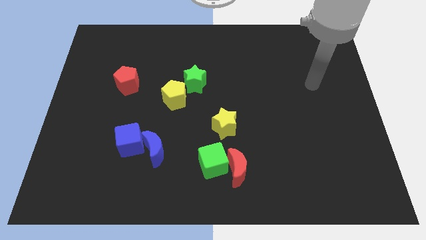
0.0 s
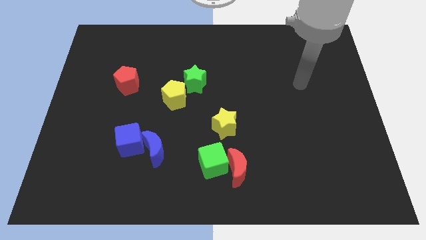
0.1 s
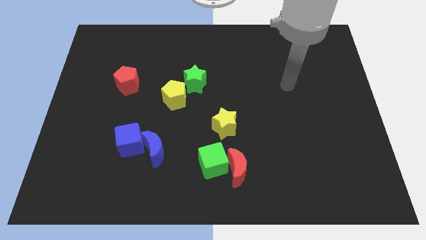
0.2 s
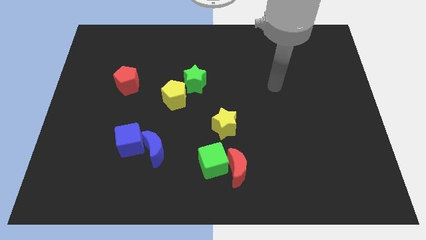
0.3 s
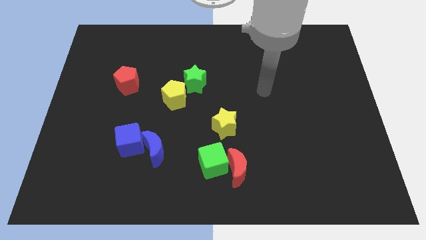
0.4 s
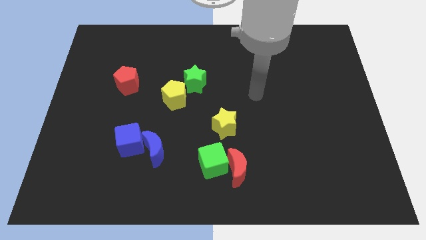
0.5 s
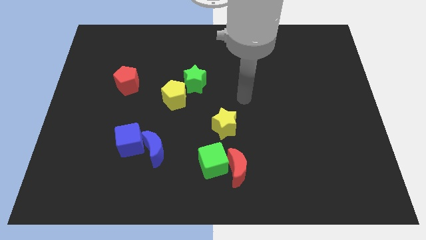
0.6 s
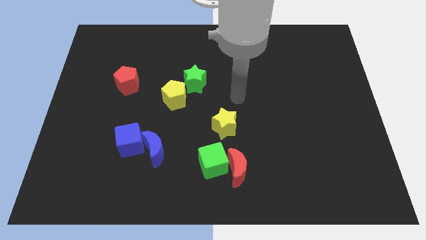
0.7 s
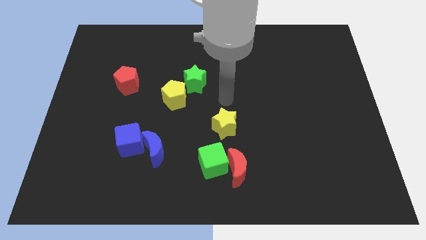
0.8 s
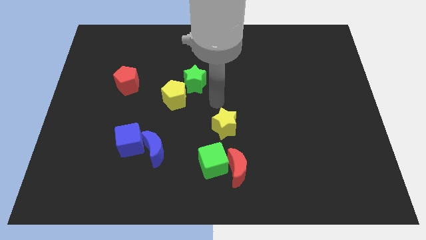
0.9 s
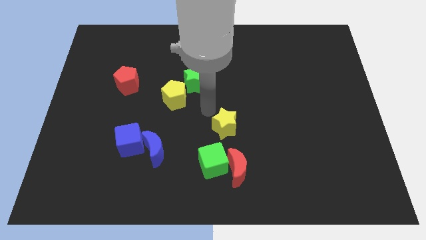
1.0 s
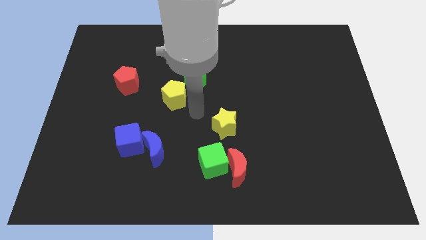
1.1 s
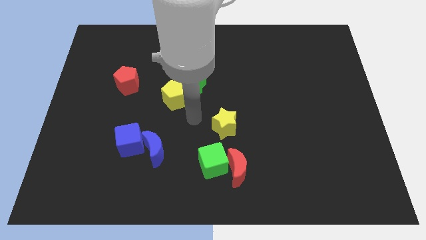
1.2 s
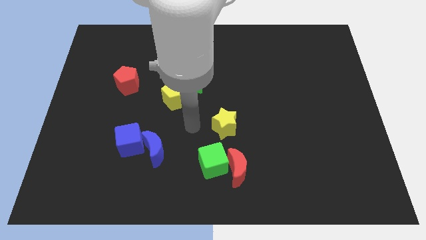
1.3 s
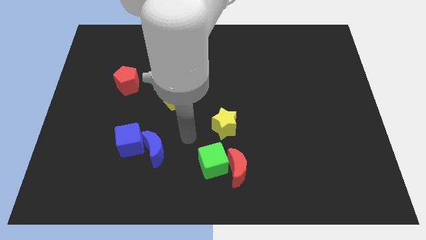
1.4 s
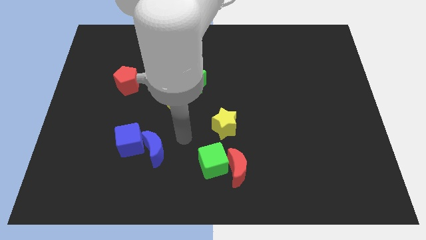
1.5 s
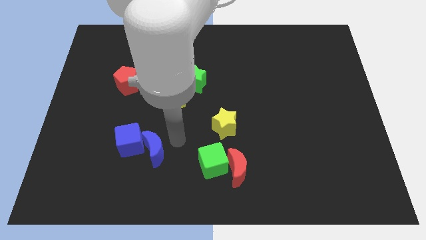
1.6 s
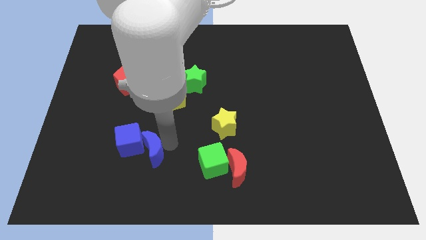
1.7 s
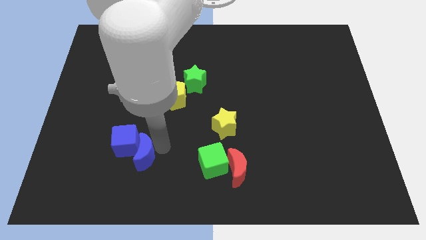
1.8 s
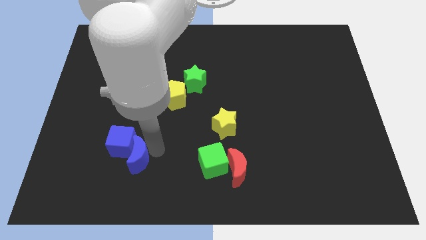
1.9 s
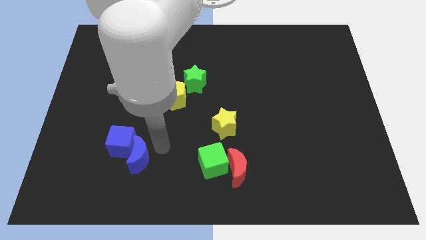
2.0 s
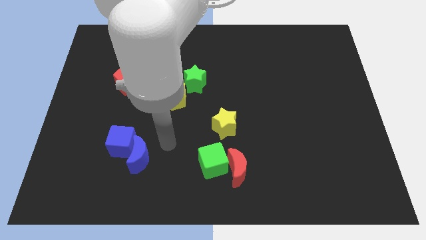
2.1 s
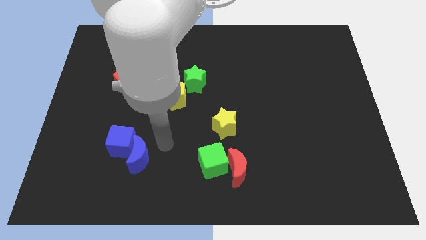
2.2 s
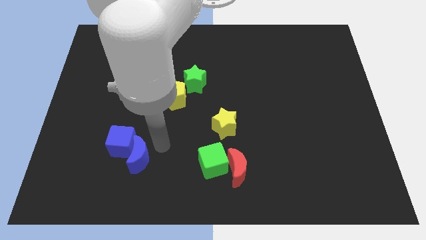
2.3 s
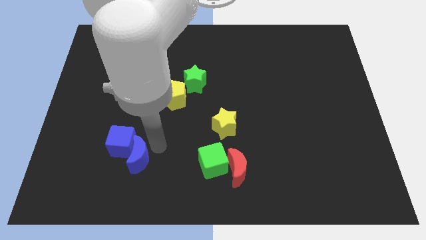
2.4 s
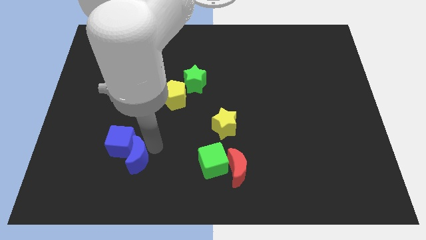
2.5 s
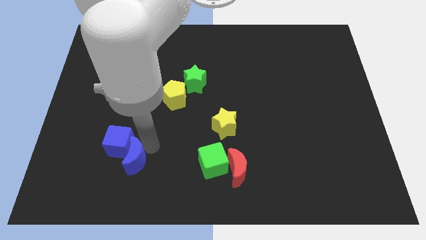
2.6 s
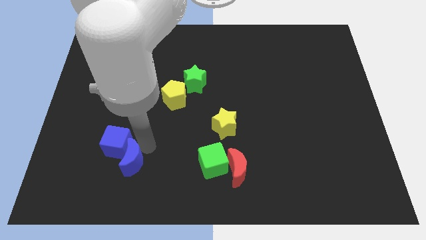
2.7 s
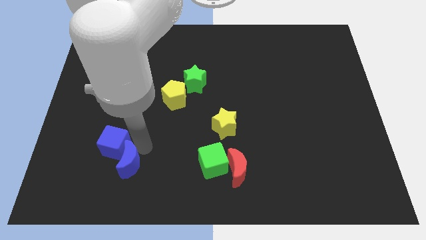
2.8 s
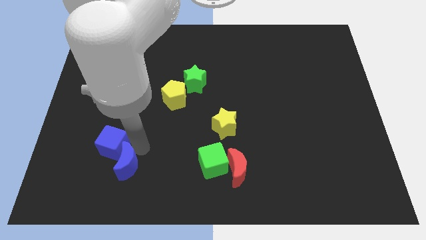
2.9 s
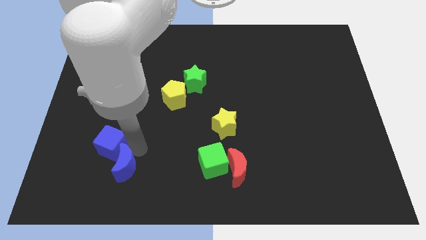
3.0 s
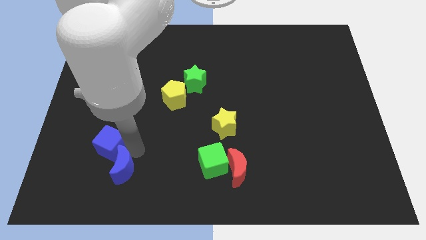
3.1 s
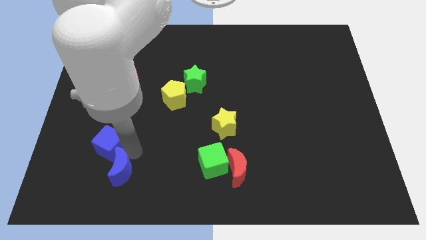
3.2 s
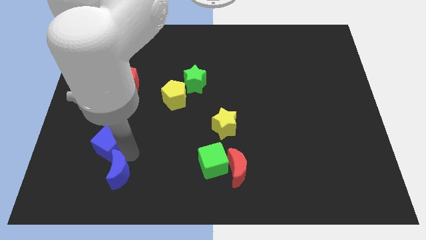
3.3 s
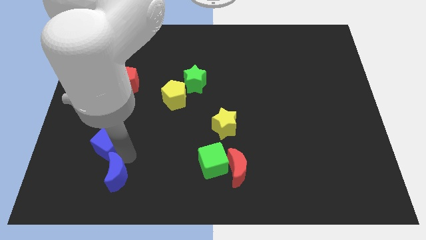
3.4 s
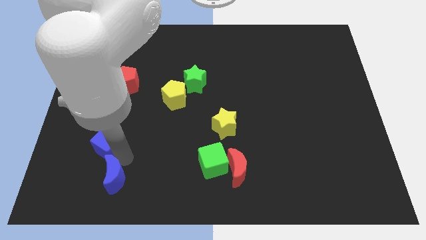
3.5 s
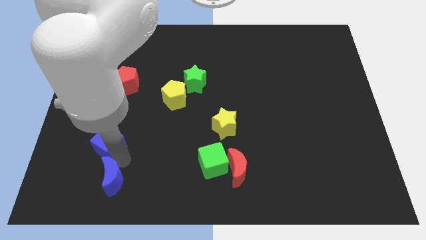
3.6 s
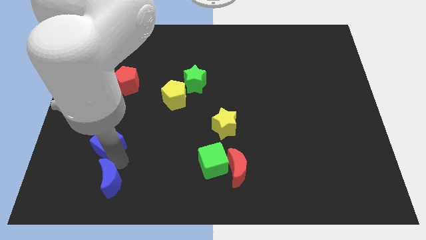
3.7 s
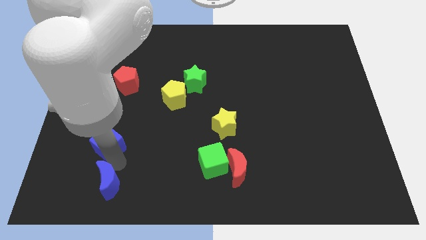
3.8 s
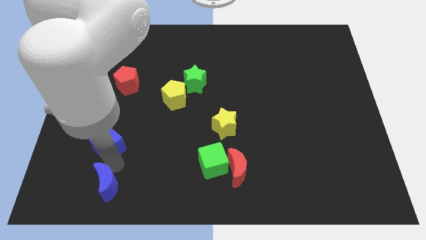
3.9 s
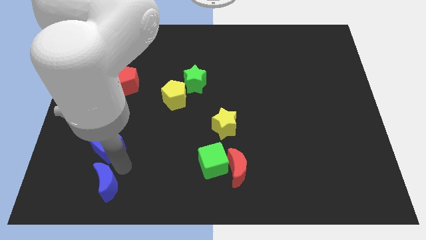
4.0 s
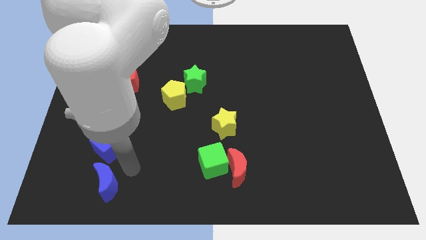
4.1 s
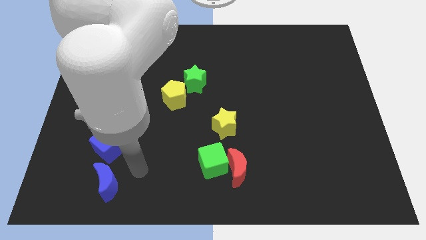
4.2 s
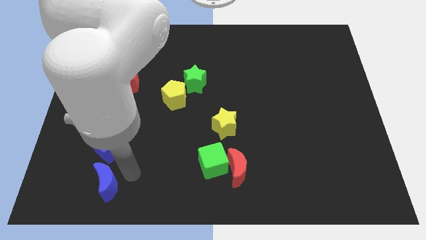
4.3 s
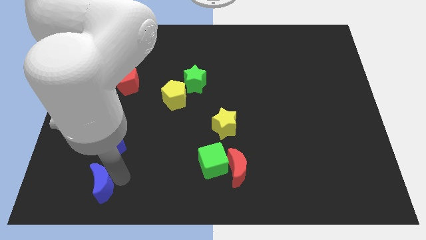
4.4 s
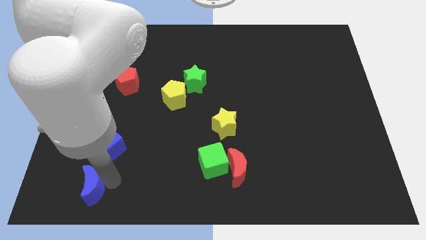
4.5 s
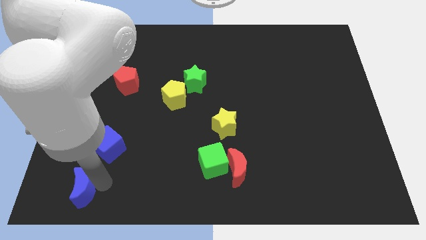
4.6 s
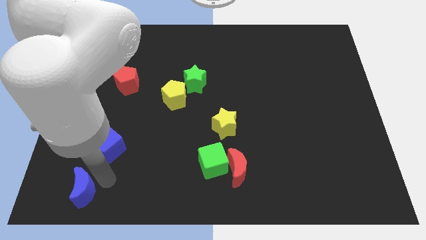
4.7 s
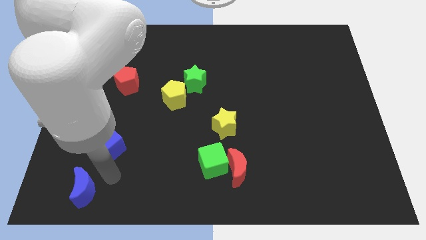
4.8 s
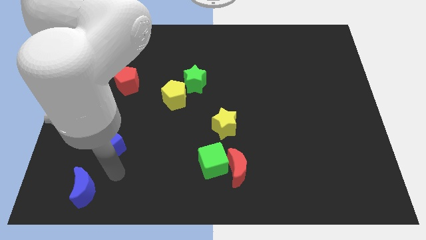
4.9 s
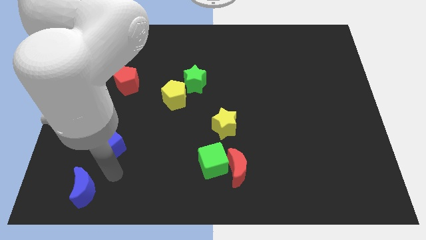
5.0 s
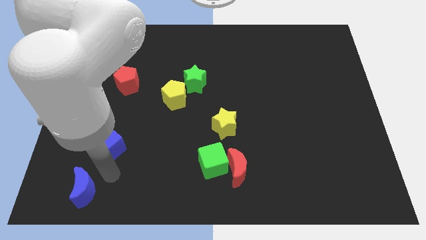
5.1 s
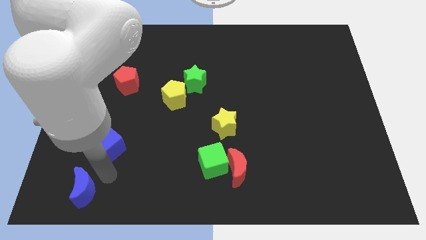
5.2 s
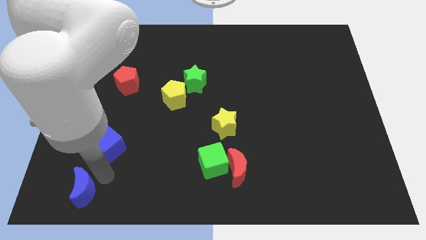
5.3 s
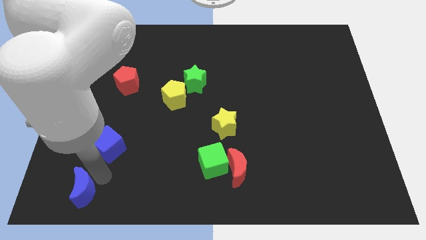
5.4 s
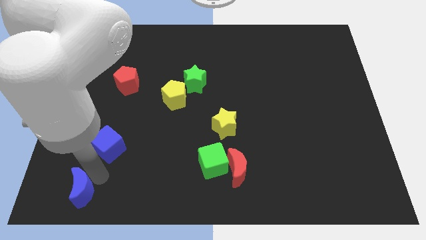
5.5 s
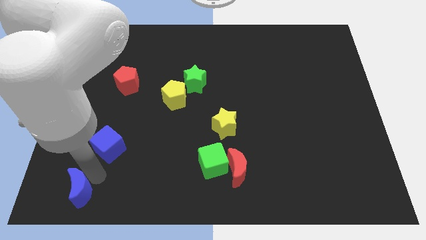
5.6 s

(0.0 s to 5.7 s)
move the blue moon to the bottom left corner

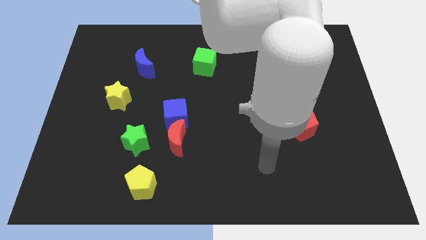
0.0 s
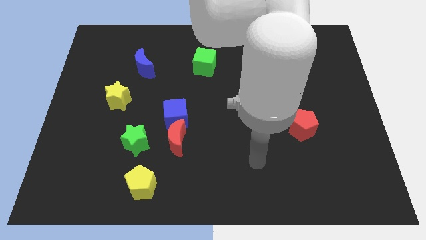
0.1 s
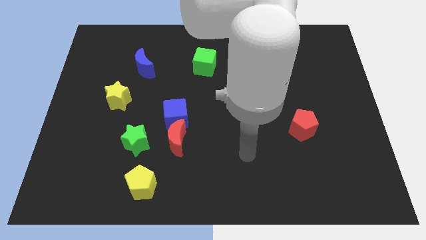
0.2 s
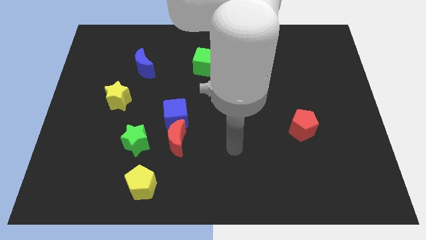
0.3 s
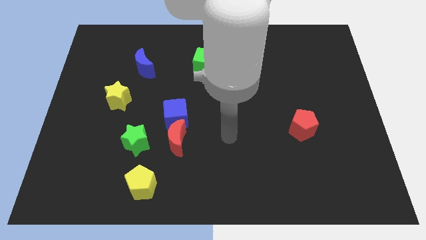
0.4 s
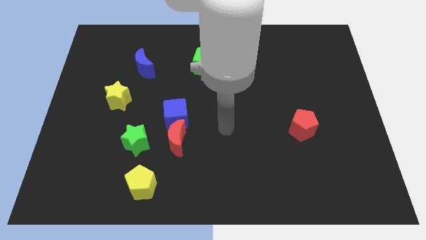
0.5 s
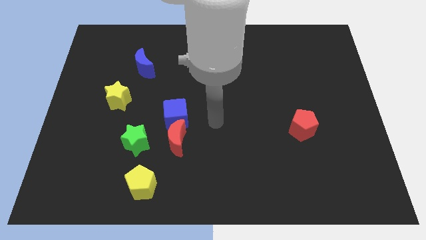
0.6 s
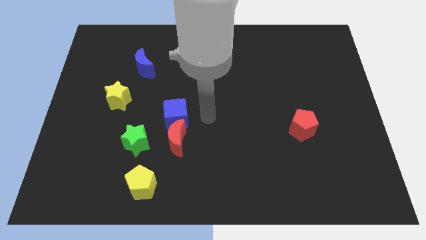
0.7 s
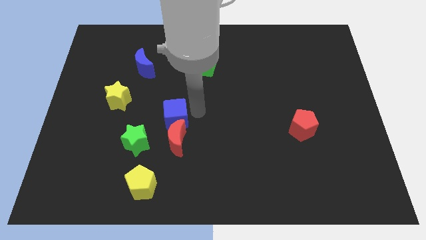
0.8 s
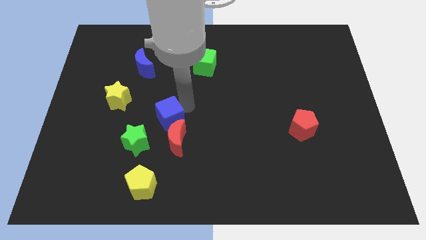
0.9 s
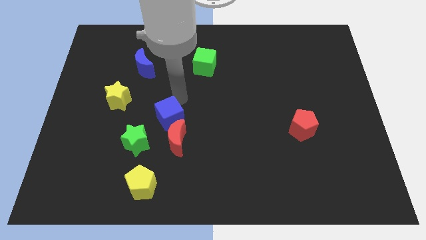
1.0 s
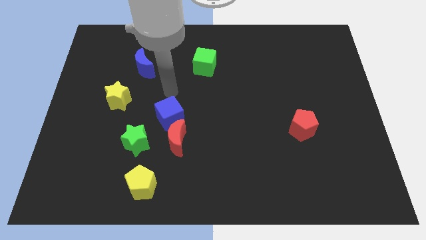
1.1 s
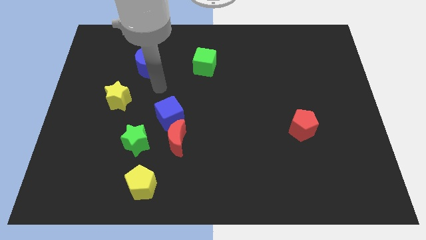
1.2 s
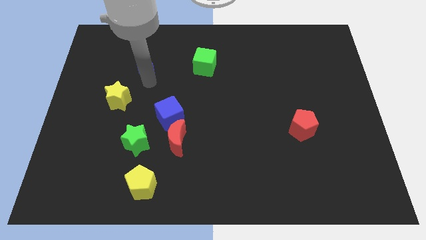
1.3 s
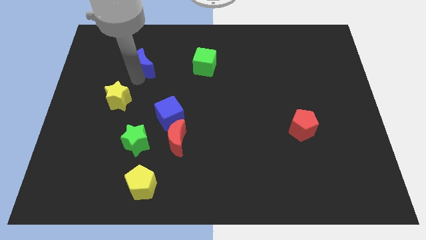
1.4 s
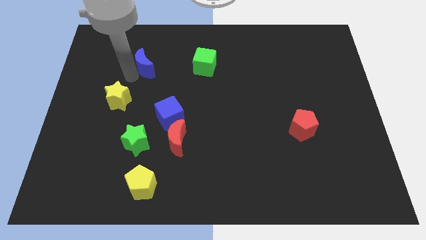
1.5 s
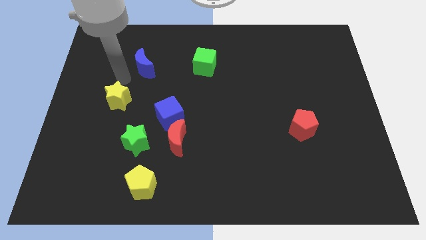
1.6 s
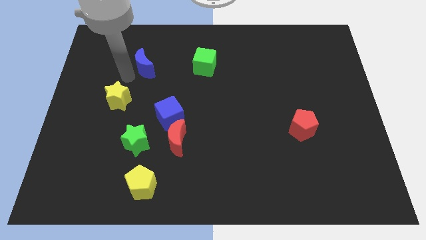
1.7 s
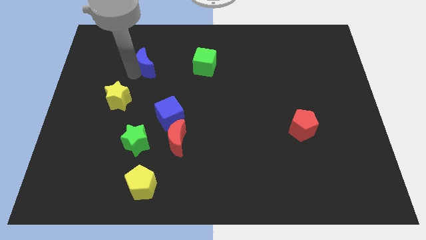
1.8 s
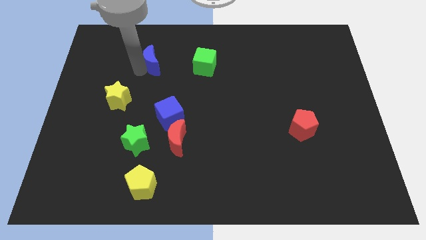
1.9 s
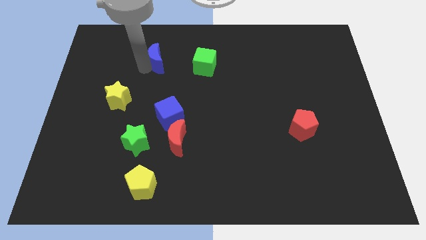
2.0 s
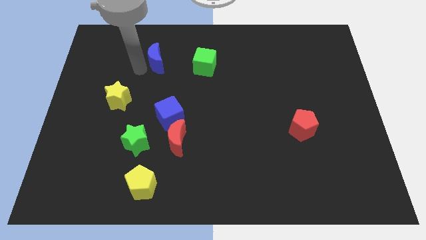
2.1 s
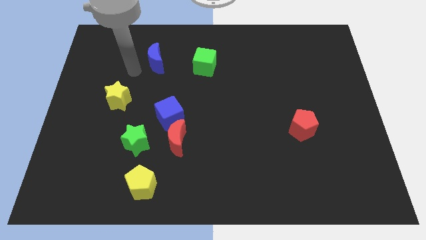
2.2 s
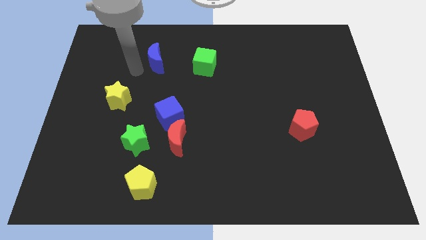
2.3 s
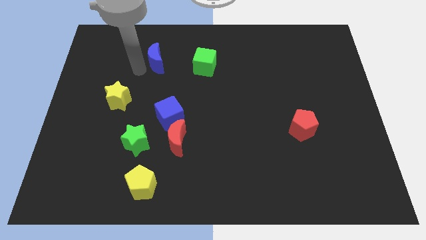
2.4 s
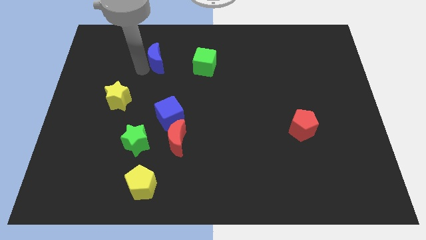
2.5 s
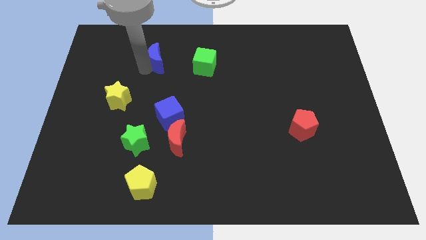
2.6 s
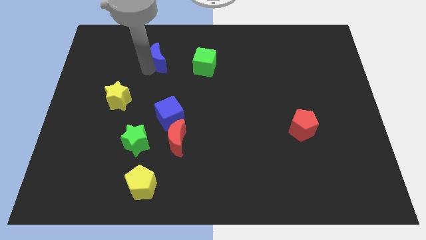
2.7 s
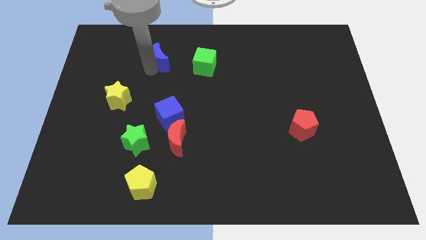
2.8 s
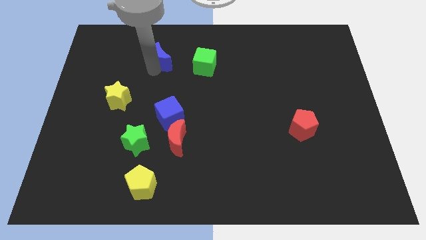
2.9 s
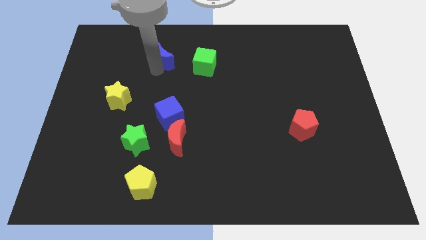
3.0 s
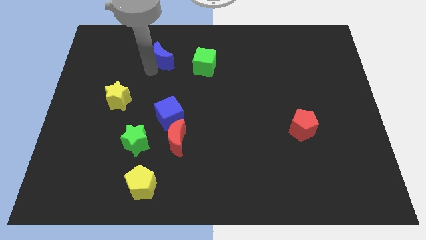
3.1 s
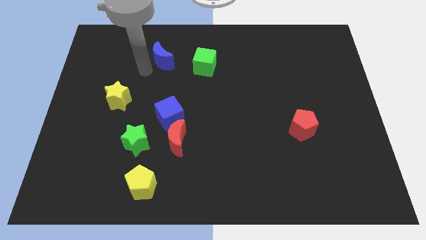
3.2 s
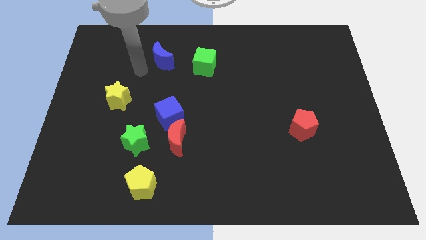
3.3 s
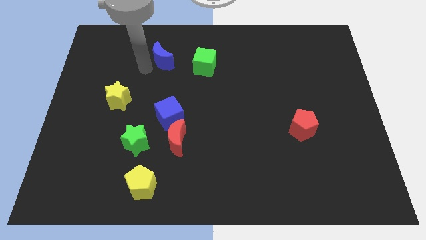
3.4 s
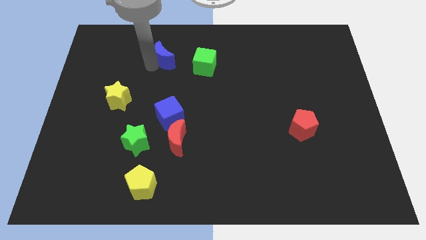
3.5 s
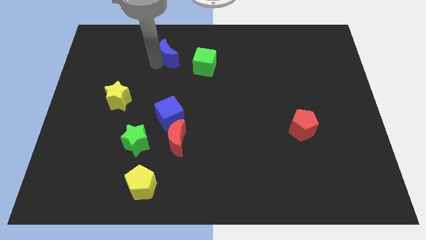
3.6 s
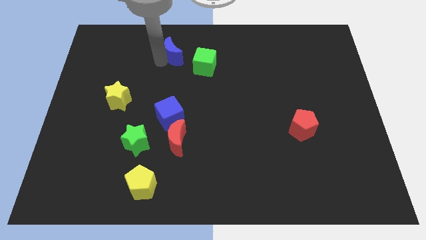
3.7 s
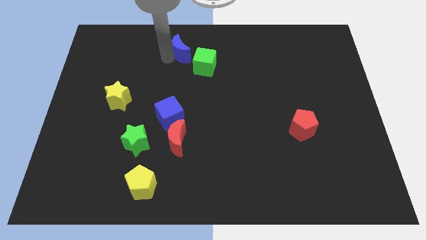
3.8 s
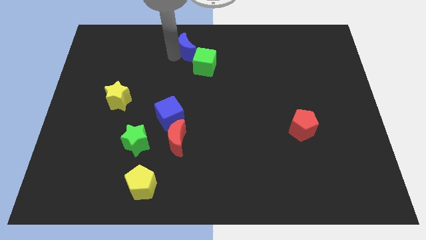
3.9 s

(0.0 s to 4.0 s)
put the blue moon to the towards your base
